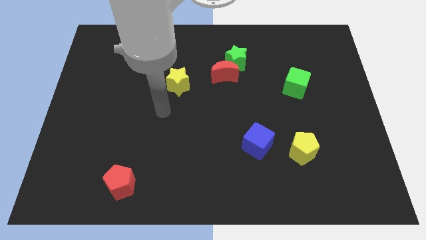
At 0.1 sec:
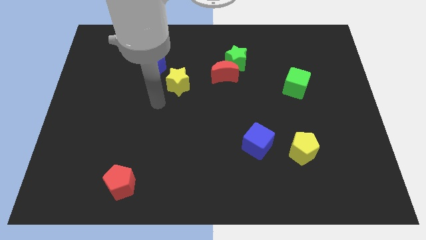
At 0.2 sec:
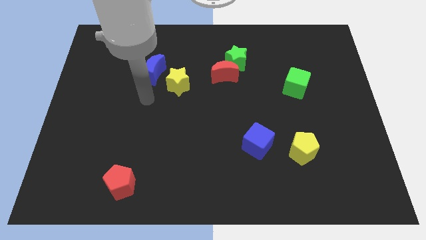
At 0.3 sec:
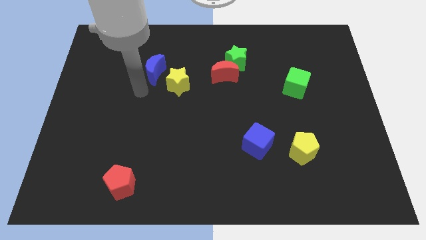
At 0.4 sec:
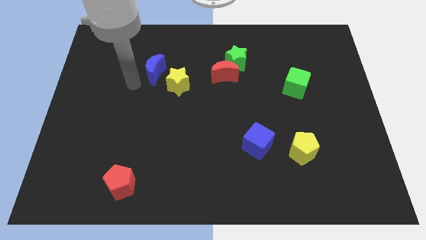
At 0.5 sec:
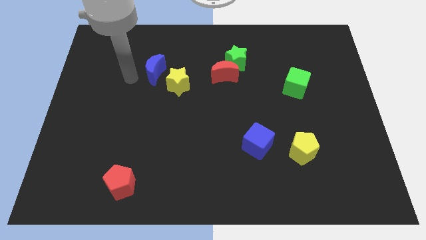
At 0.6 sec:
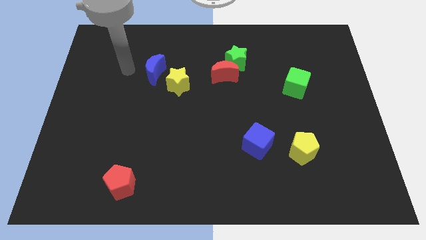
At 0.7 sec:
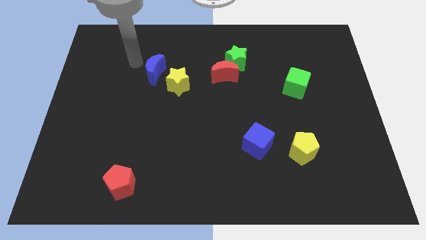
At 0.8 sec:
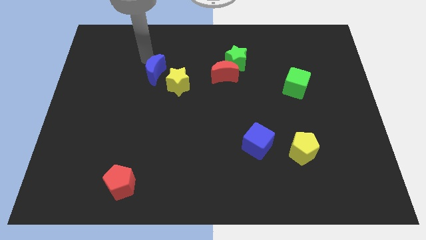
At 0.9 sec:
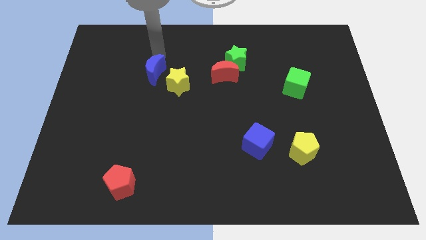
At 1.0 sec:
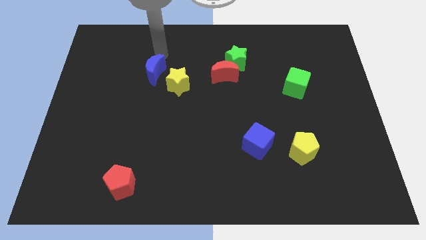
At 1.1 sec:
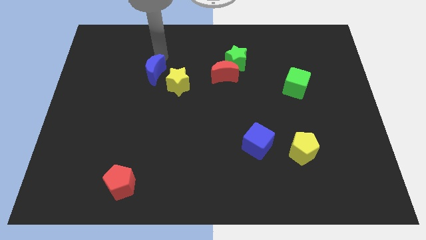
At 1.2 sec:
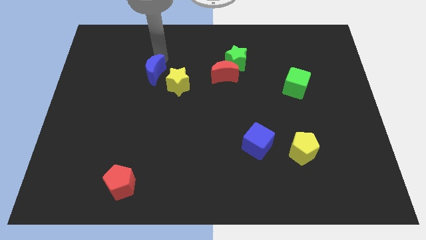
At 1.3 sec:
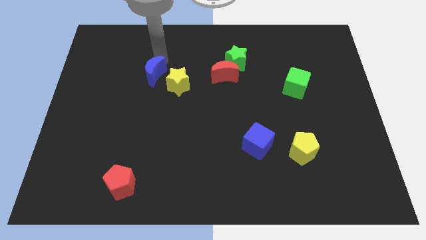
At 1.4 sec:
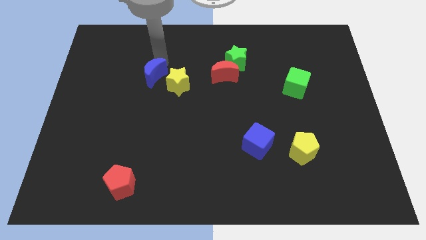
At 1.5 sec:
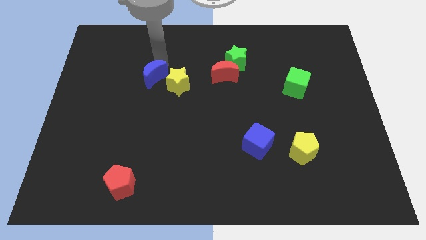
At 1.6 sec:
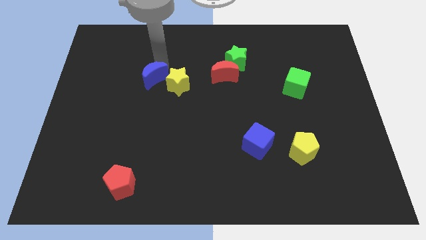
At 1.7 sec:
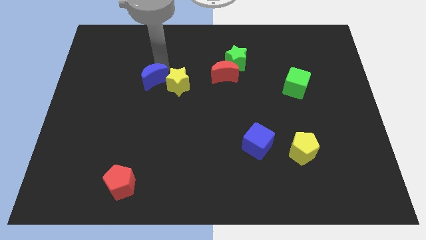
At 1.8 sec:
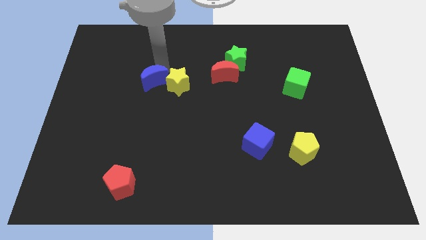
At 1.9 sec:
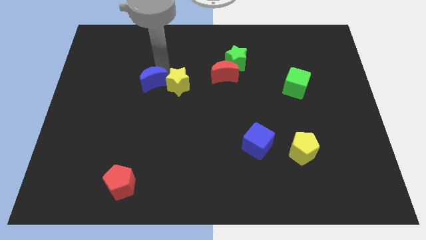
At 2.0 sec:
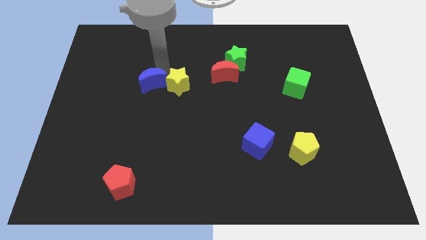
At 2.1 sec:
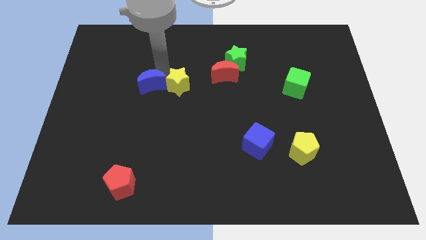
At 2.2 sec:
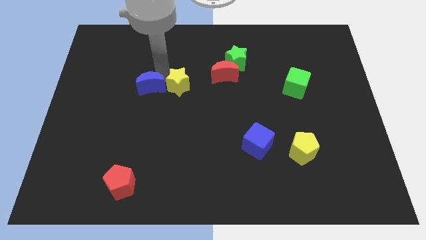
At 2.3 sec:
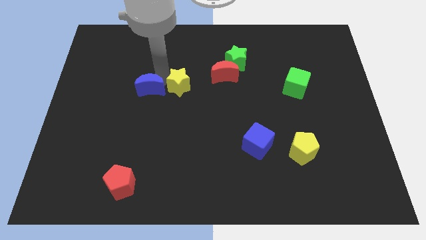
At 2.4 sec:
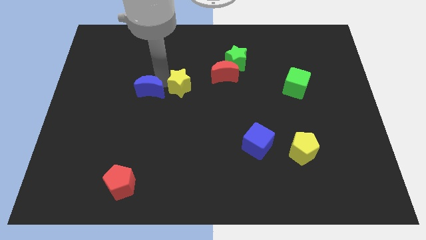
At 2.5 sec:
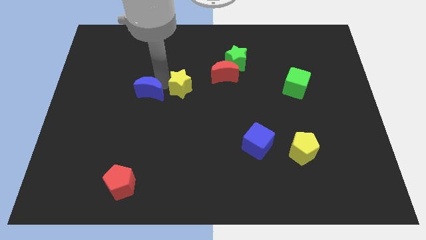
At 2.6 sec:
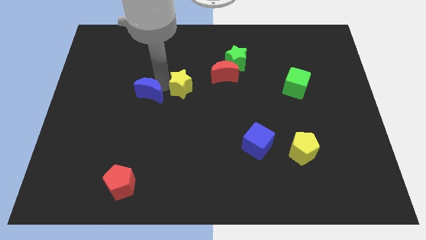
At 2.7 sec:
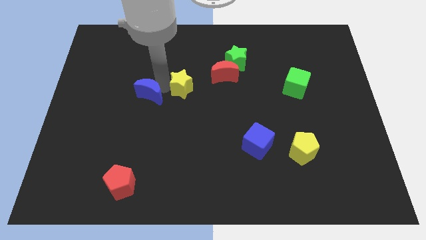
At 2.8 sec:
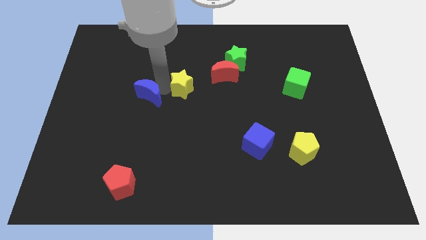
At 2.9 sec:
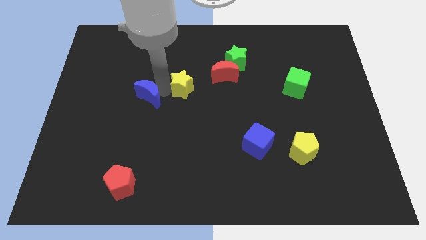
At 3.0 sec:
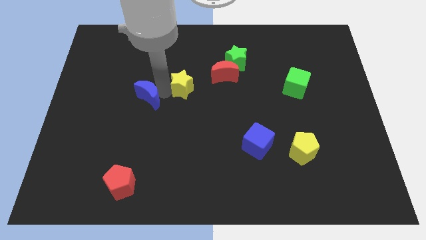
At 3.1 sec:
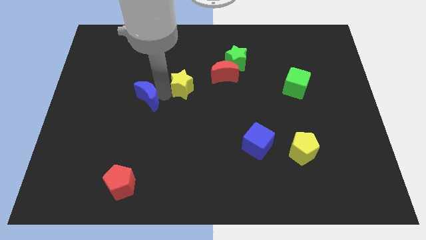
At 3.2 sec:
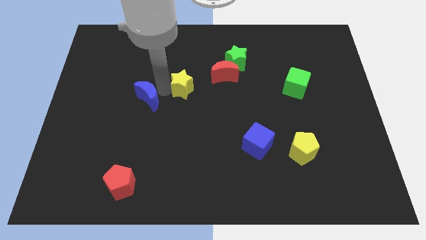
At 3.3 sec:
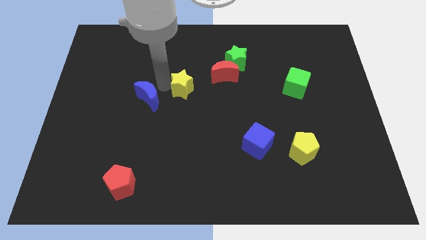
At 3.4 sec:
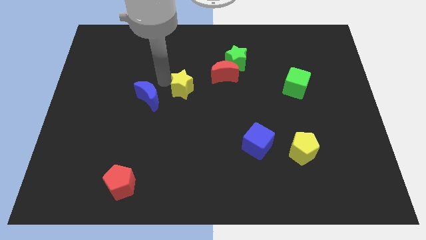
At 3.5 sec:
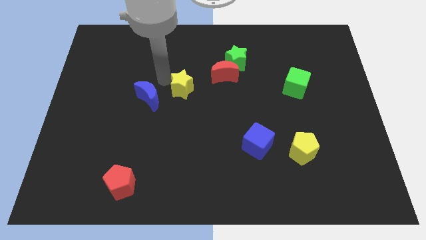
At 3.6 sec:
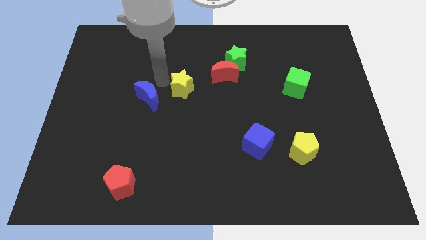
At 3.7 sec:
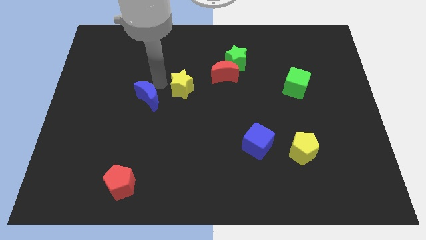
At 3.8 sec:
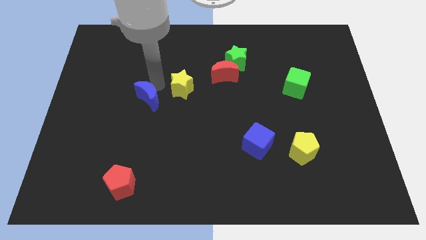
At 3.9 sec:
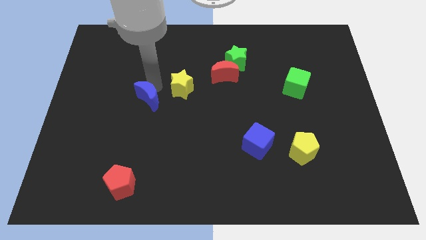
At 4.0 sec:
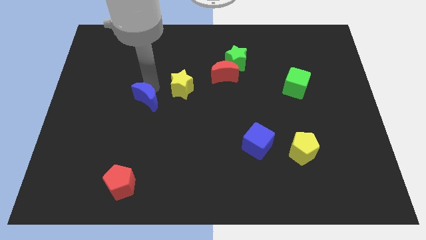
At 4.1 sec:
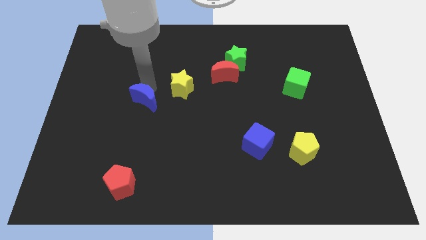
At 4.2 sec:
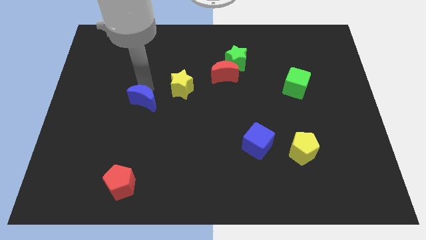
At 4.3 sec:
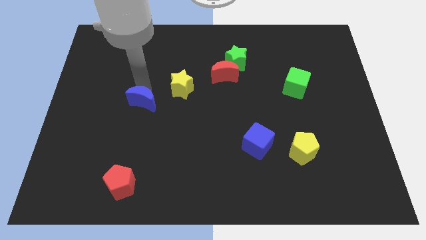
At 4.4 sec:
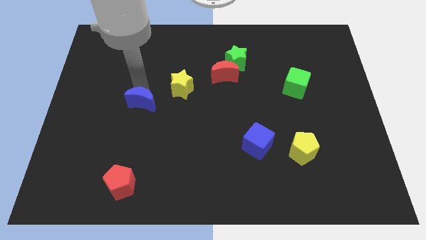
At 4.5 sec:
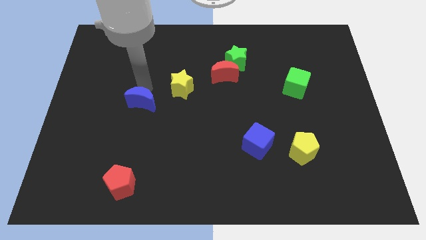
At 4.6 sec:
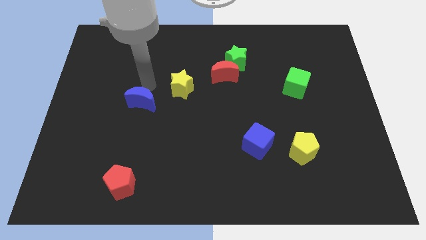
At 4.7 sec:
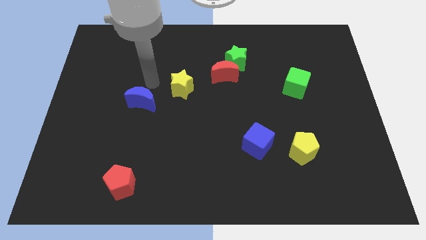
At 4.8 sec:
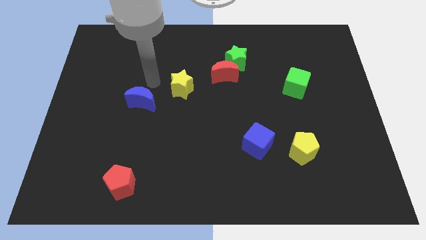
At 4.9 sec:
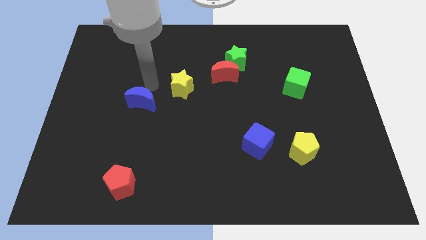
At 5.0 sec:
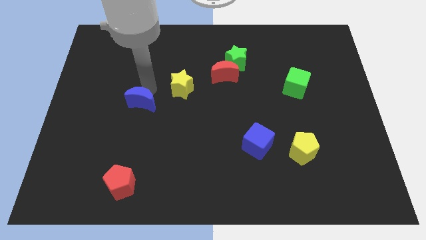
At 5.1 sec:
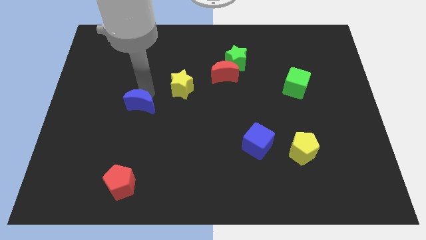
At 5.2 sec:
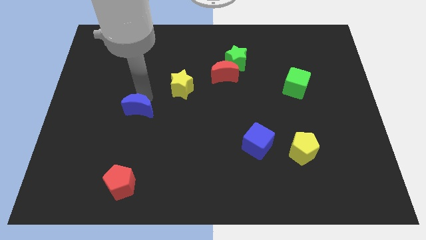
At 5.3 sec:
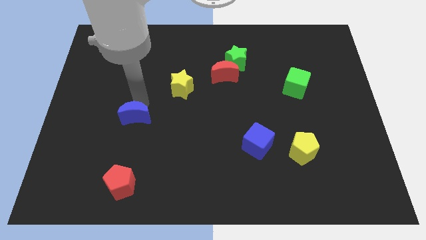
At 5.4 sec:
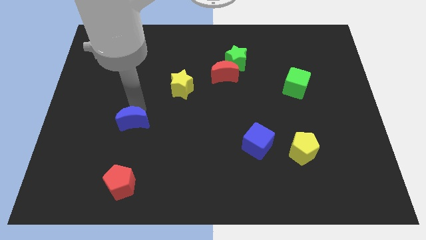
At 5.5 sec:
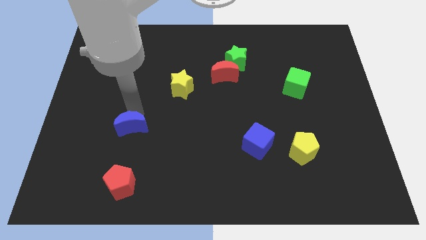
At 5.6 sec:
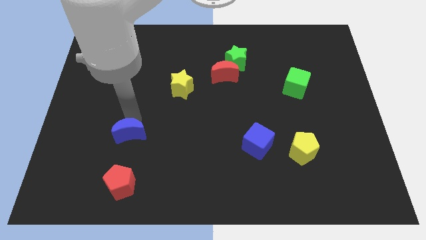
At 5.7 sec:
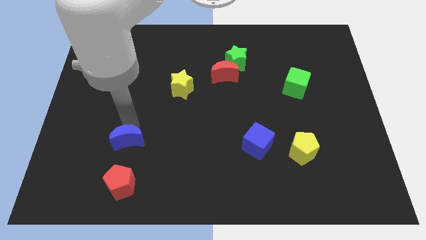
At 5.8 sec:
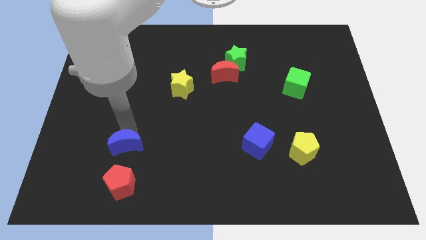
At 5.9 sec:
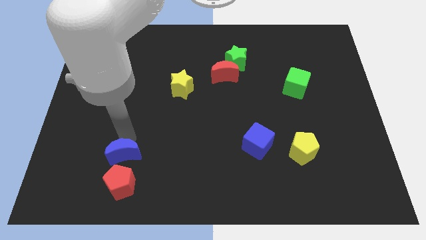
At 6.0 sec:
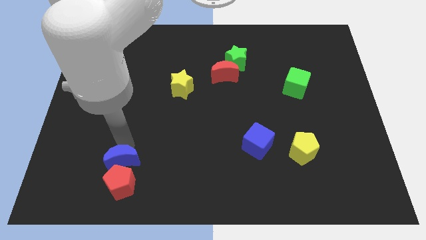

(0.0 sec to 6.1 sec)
put the blue moon to the red pentagon

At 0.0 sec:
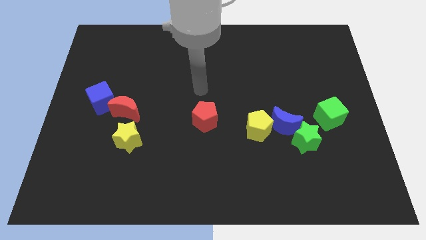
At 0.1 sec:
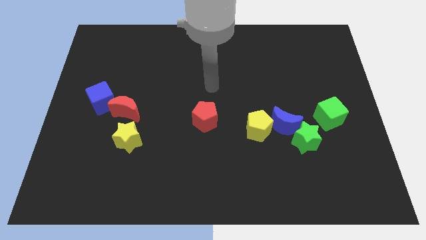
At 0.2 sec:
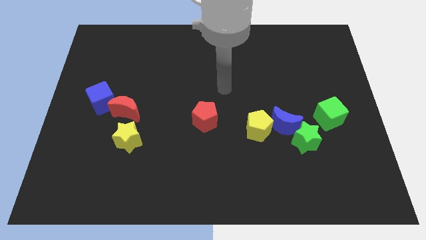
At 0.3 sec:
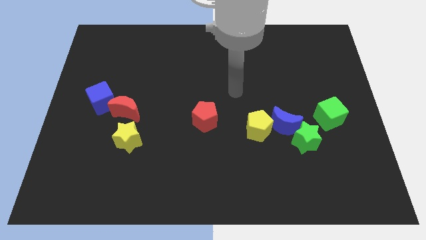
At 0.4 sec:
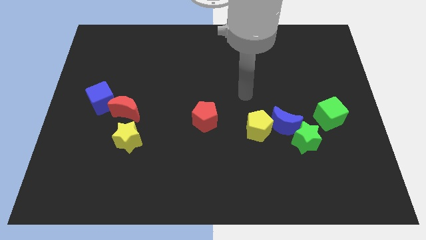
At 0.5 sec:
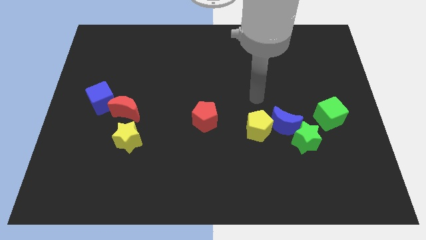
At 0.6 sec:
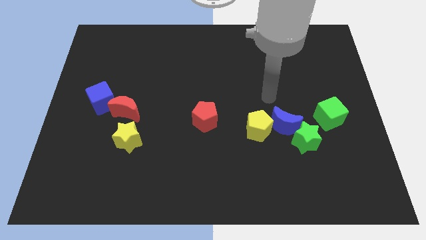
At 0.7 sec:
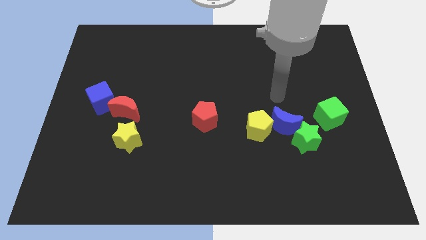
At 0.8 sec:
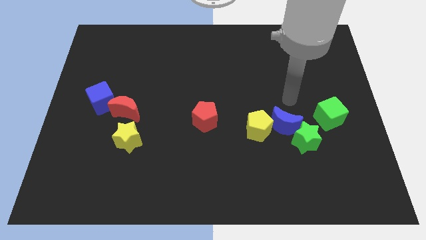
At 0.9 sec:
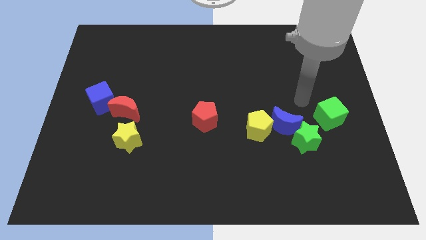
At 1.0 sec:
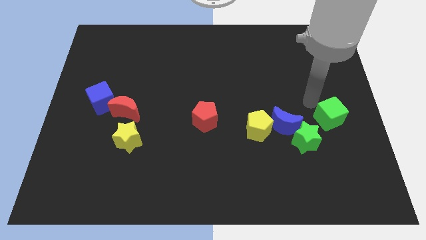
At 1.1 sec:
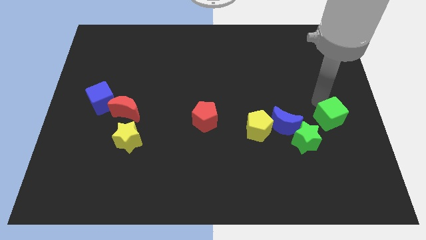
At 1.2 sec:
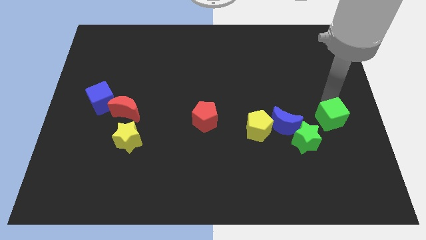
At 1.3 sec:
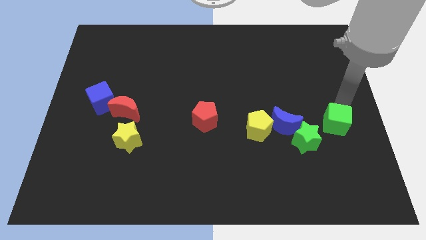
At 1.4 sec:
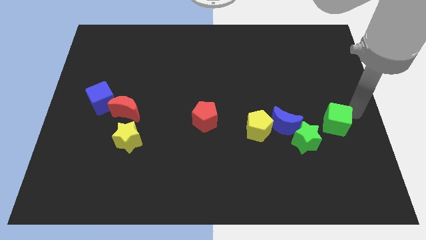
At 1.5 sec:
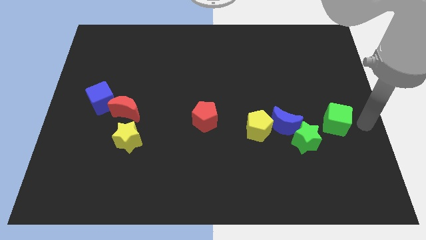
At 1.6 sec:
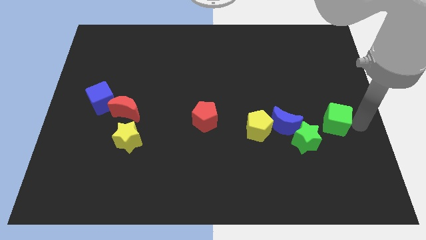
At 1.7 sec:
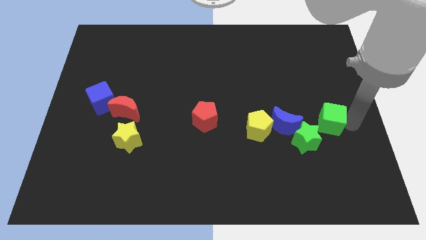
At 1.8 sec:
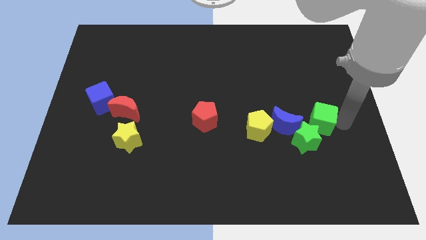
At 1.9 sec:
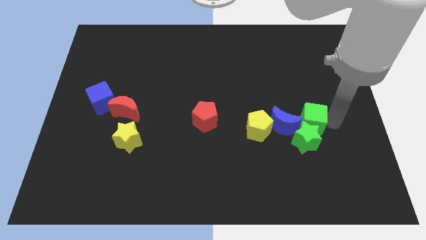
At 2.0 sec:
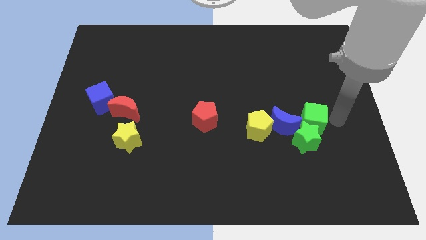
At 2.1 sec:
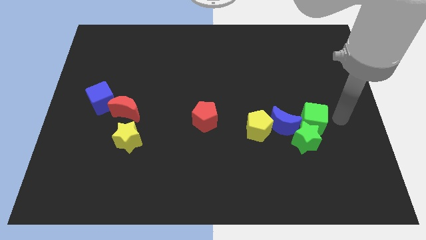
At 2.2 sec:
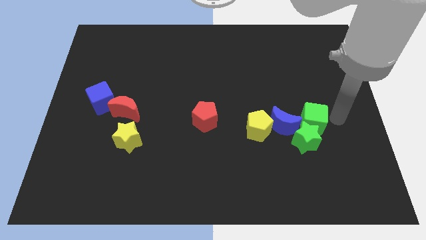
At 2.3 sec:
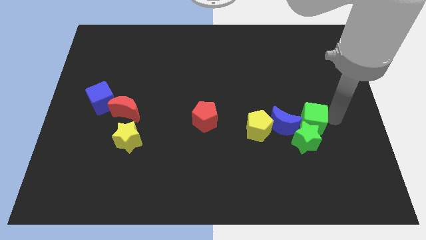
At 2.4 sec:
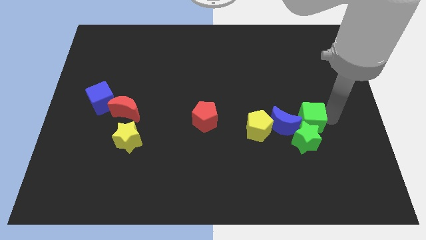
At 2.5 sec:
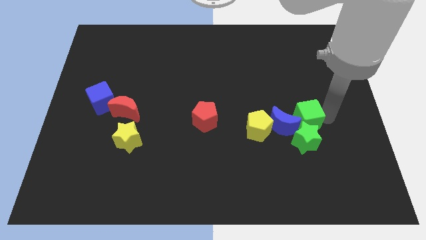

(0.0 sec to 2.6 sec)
push the green cube towards the blue moon
